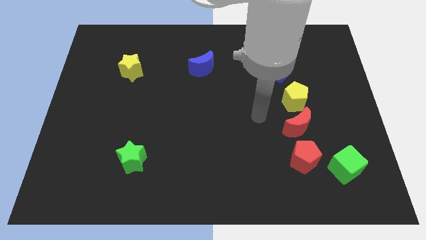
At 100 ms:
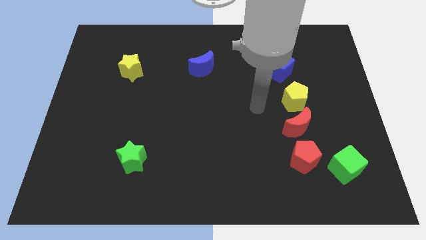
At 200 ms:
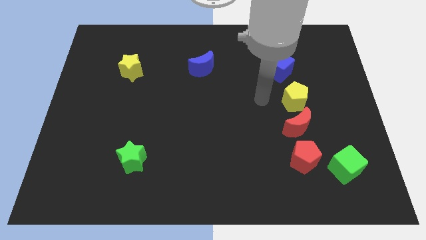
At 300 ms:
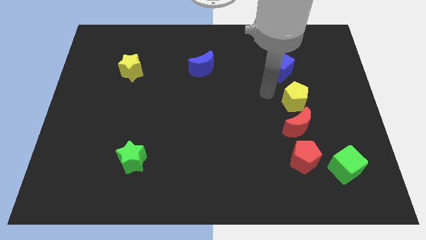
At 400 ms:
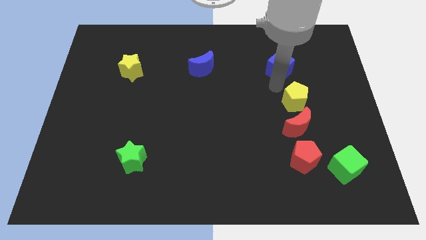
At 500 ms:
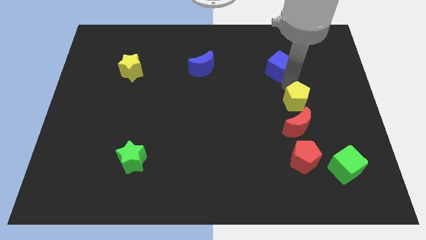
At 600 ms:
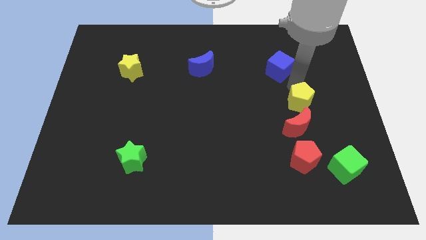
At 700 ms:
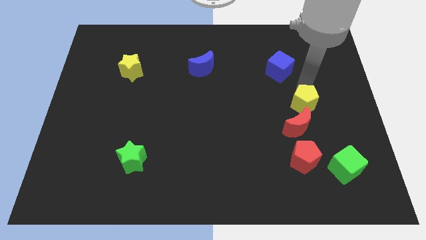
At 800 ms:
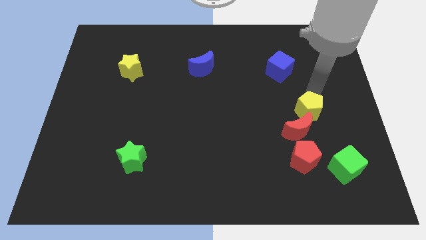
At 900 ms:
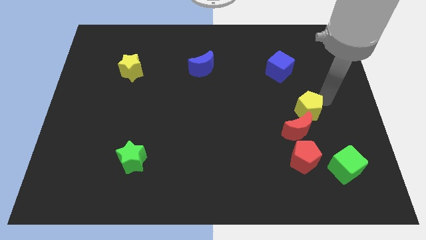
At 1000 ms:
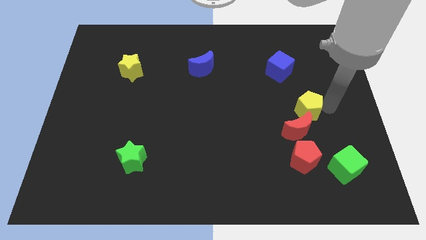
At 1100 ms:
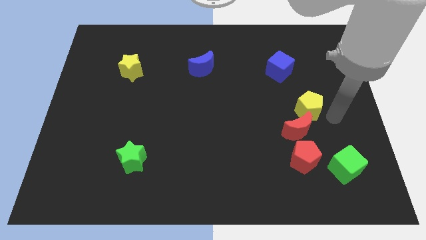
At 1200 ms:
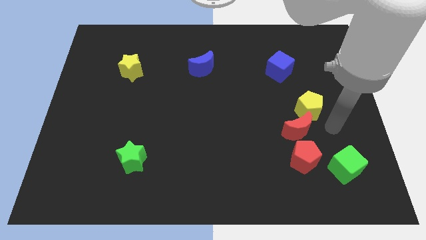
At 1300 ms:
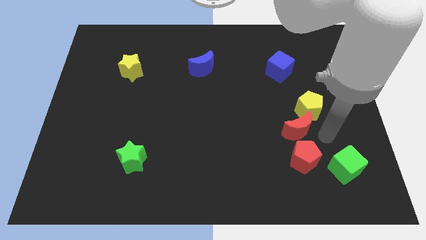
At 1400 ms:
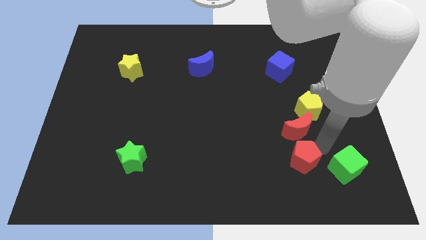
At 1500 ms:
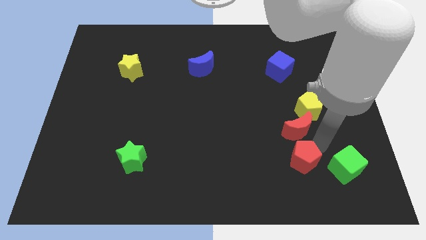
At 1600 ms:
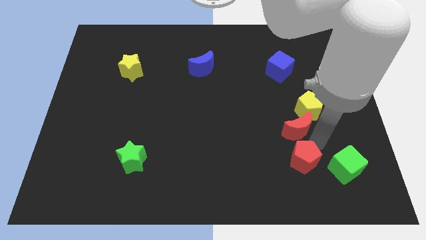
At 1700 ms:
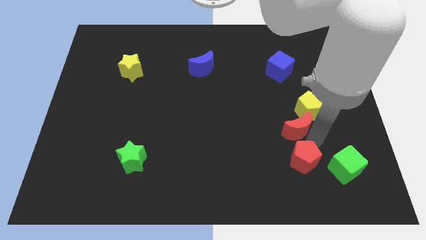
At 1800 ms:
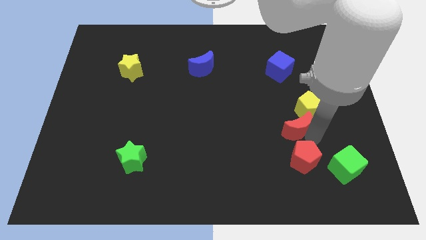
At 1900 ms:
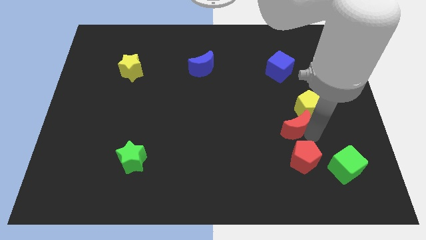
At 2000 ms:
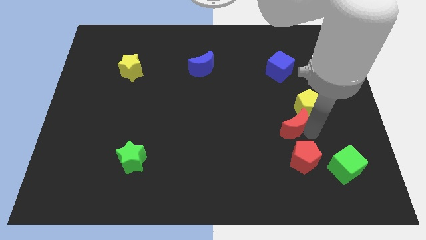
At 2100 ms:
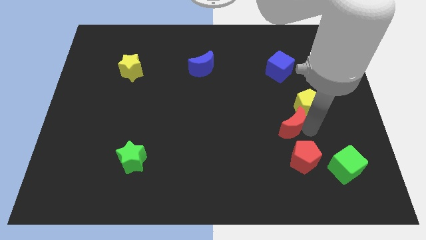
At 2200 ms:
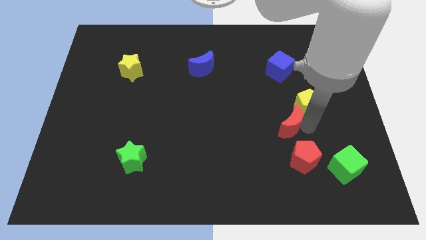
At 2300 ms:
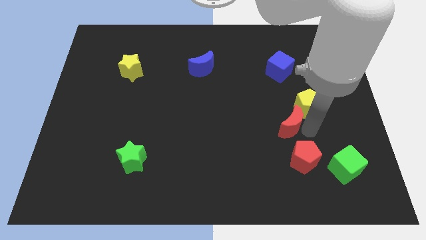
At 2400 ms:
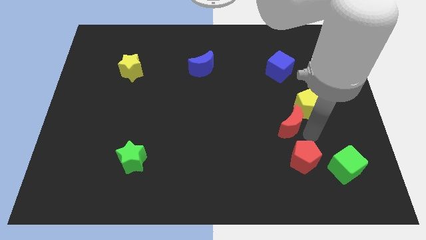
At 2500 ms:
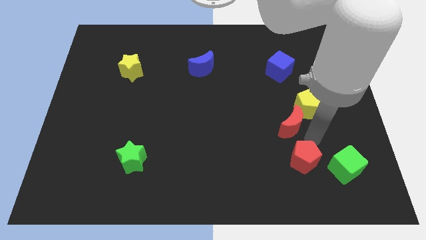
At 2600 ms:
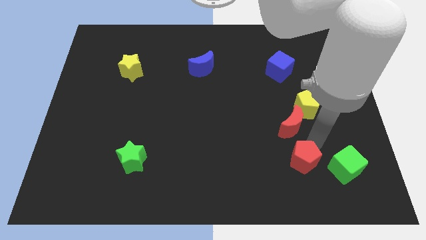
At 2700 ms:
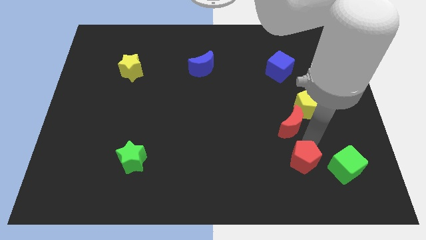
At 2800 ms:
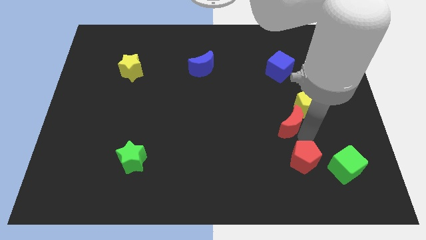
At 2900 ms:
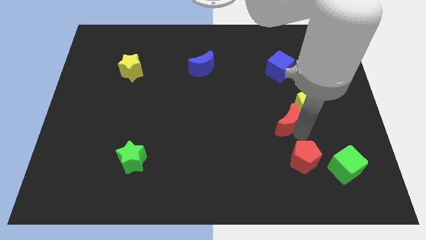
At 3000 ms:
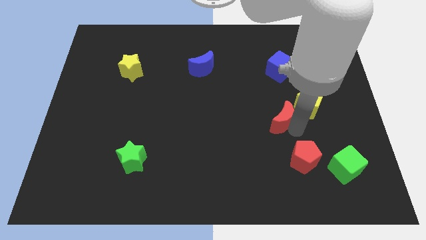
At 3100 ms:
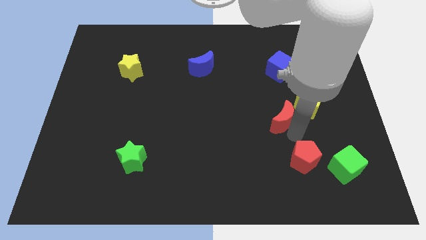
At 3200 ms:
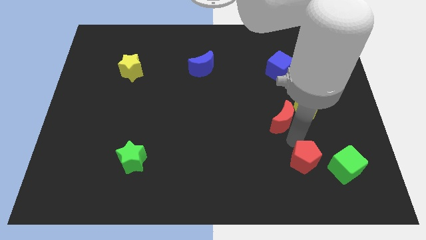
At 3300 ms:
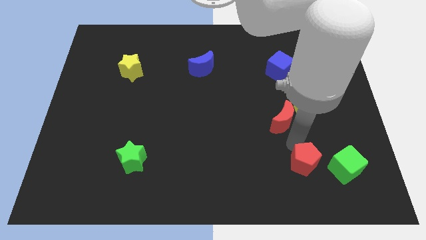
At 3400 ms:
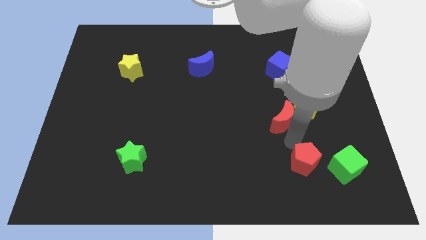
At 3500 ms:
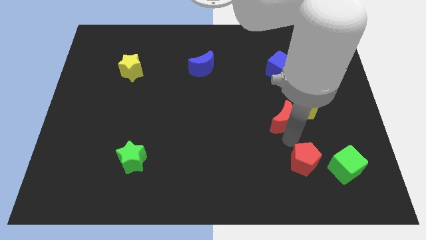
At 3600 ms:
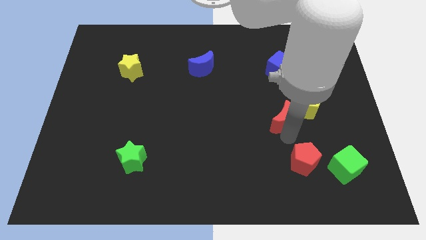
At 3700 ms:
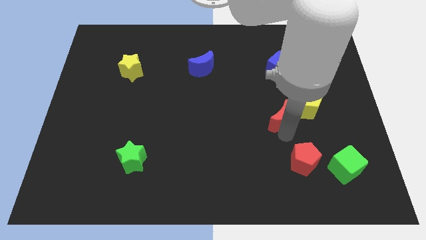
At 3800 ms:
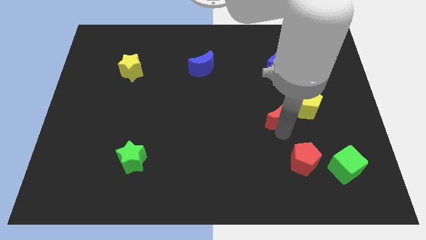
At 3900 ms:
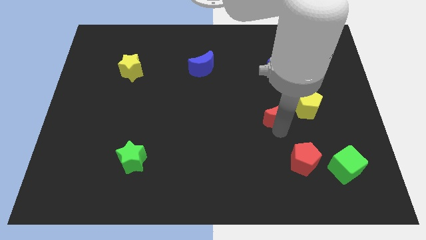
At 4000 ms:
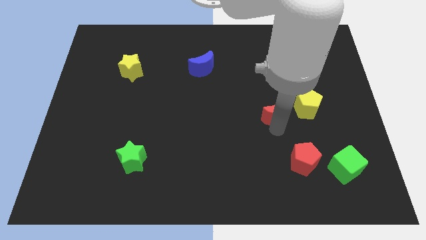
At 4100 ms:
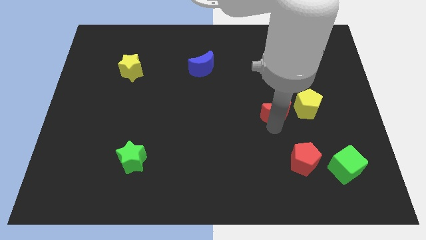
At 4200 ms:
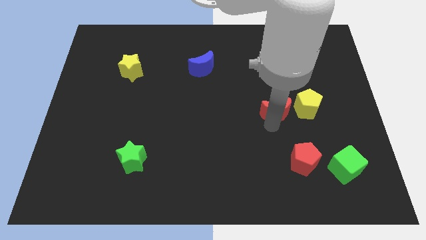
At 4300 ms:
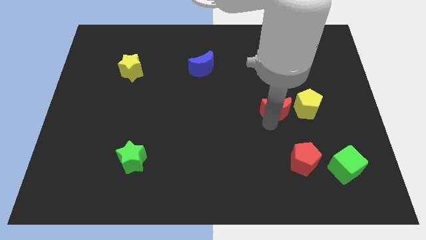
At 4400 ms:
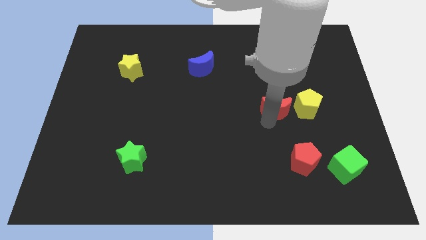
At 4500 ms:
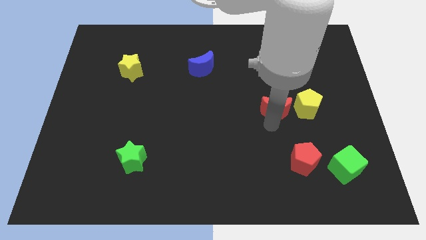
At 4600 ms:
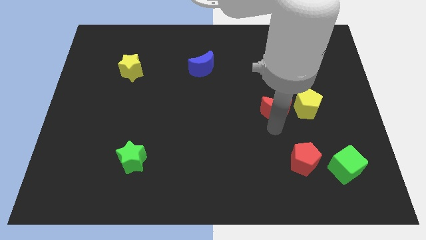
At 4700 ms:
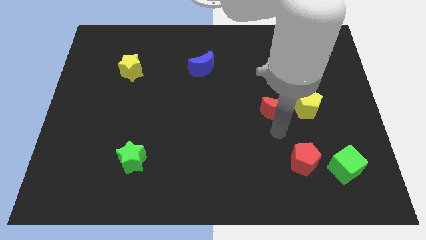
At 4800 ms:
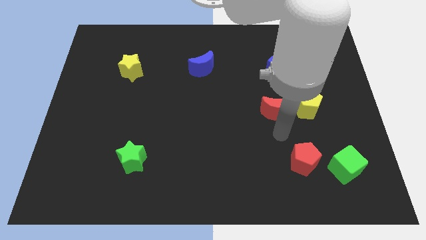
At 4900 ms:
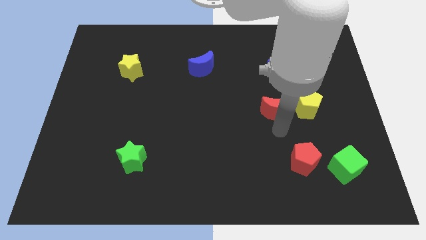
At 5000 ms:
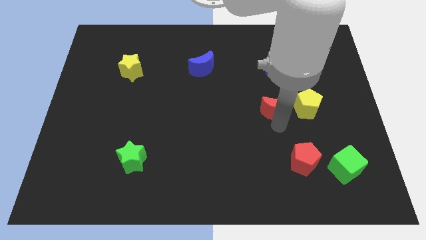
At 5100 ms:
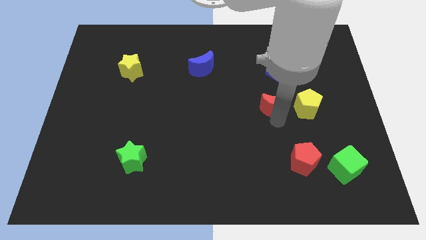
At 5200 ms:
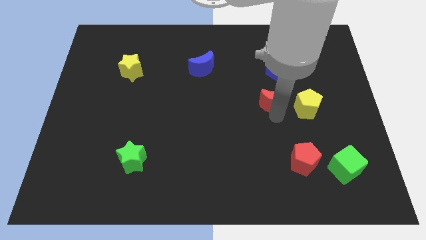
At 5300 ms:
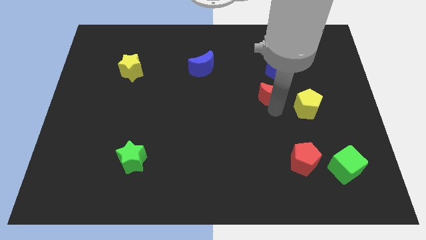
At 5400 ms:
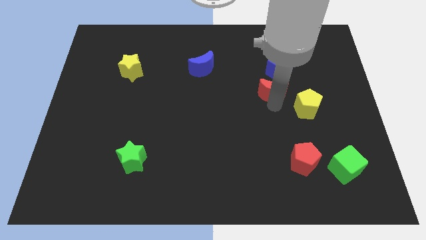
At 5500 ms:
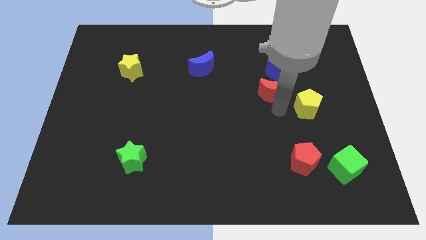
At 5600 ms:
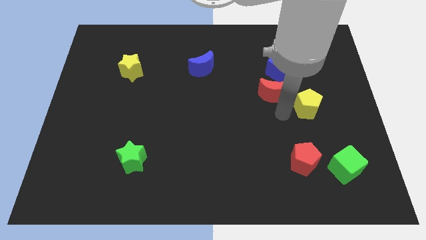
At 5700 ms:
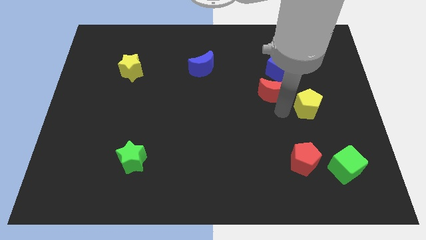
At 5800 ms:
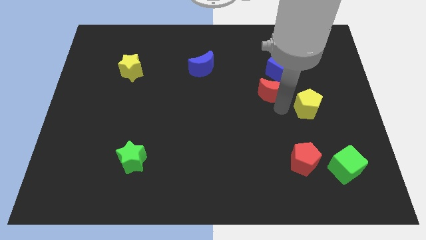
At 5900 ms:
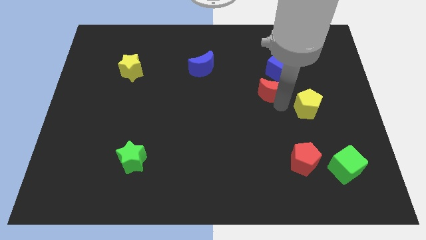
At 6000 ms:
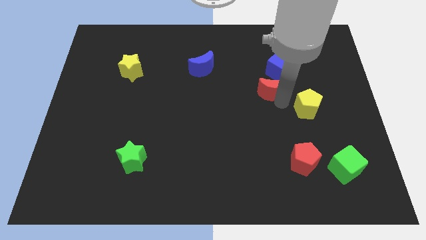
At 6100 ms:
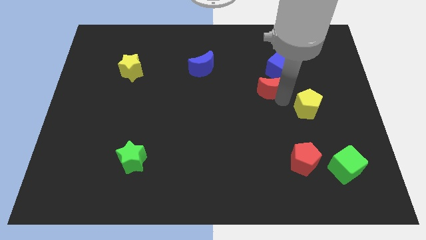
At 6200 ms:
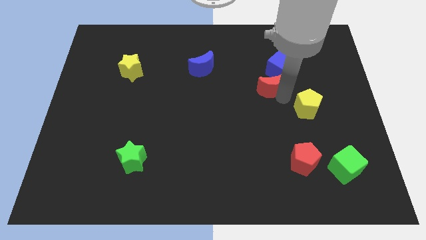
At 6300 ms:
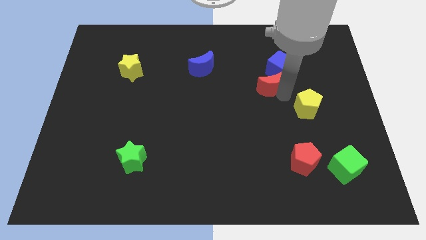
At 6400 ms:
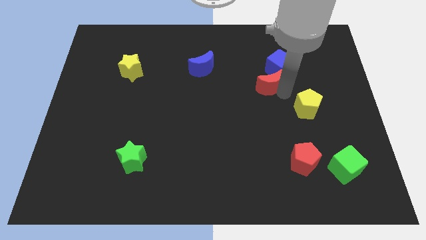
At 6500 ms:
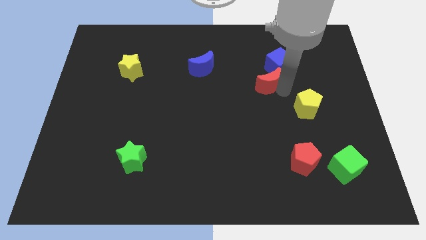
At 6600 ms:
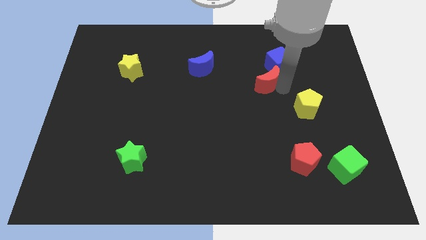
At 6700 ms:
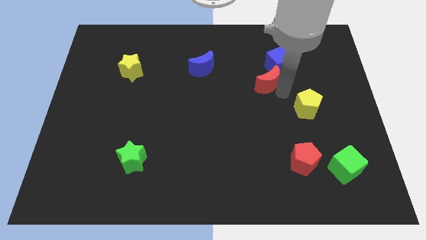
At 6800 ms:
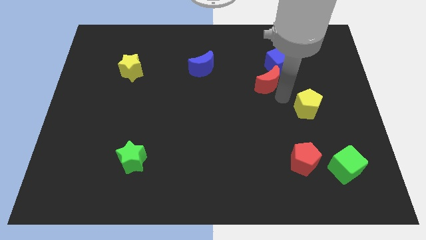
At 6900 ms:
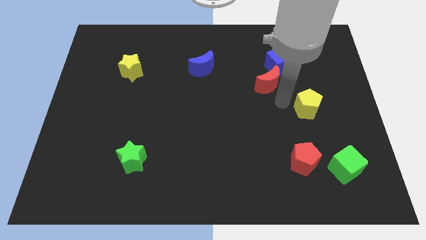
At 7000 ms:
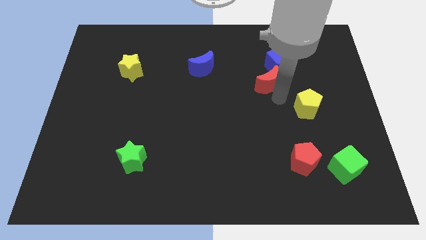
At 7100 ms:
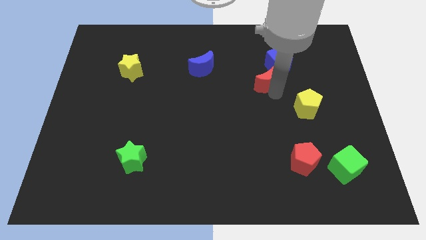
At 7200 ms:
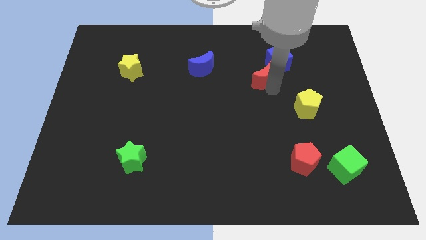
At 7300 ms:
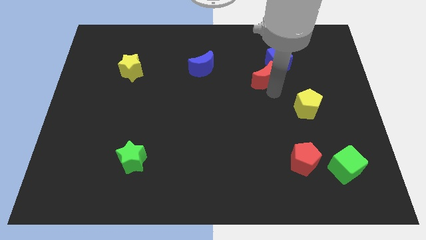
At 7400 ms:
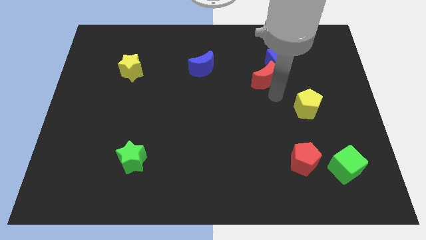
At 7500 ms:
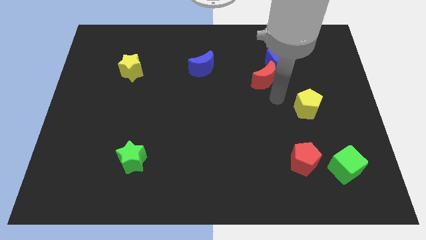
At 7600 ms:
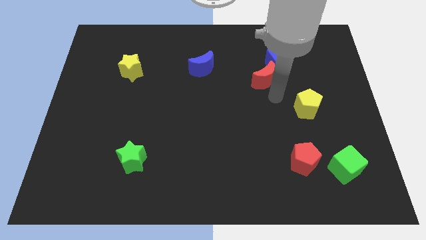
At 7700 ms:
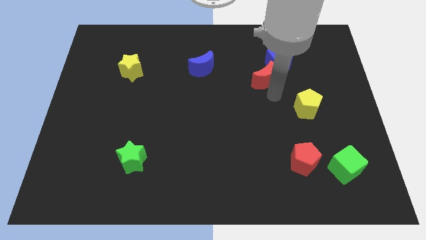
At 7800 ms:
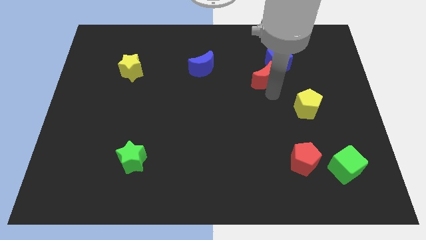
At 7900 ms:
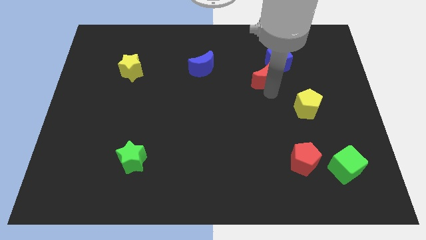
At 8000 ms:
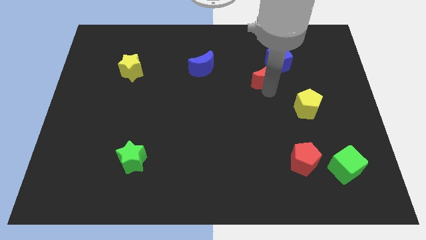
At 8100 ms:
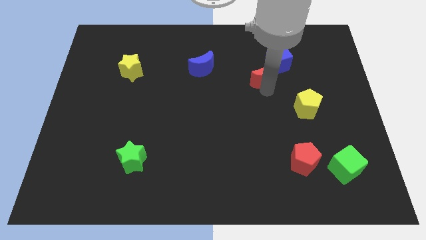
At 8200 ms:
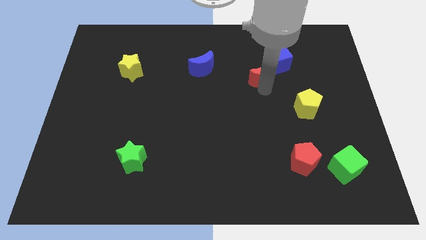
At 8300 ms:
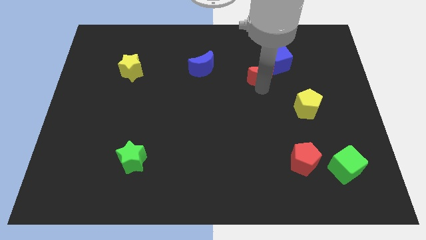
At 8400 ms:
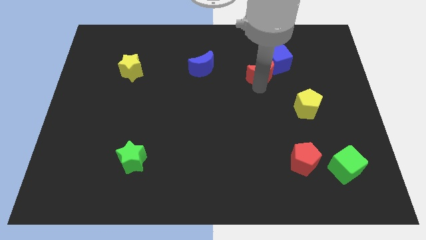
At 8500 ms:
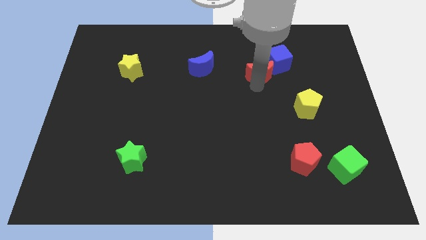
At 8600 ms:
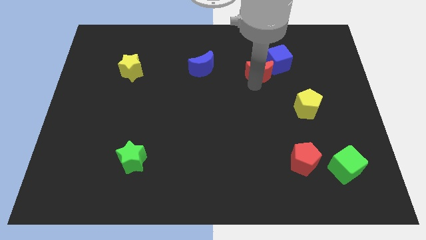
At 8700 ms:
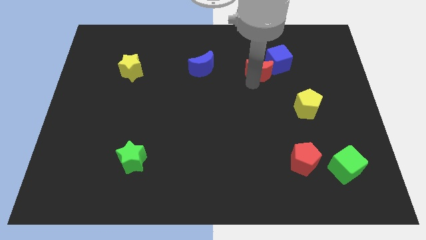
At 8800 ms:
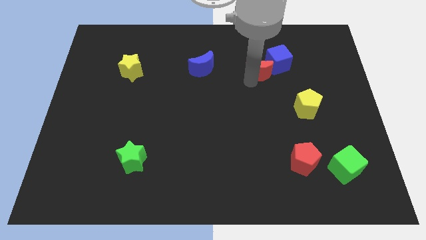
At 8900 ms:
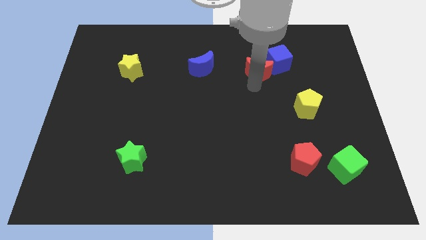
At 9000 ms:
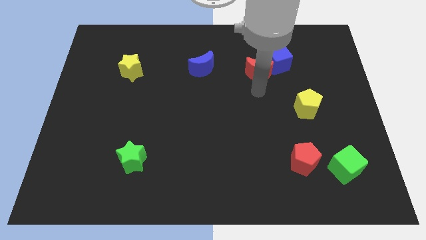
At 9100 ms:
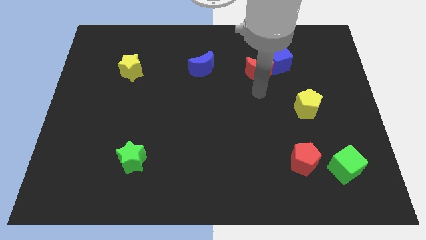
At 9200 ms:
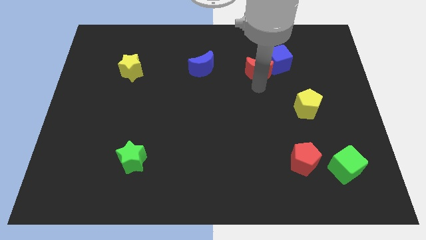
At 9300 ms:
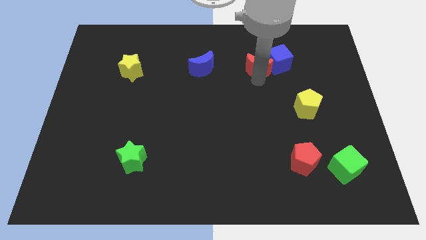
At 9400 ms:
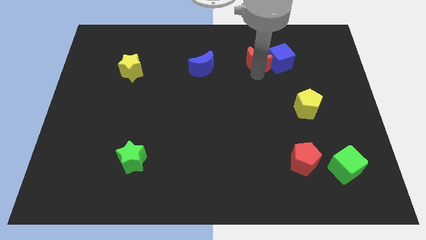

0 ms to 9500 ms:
move the red moon to the top left side of the blue cube
